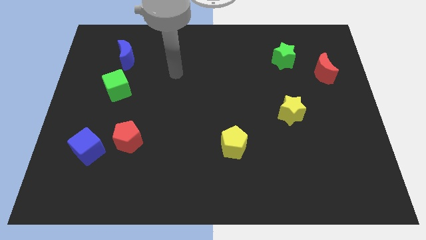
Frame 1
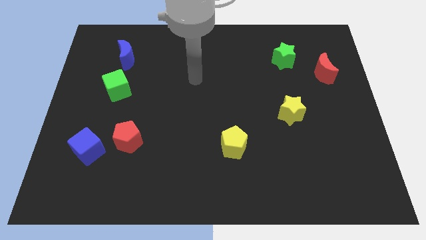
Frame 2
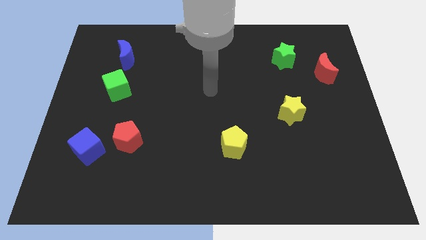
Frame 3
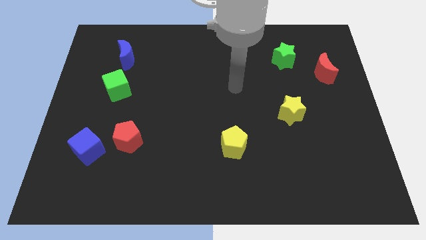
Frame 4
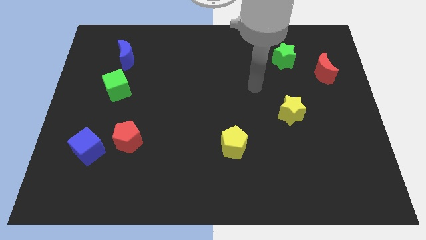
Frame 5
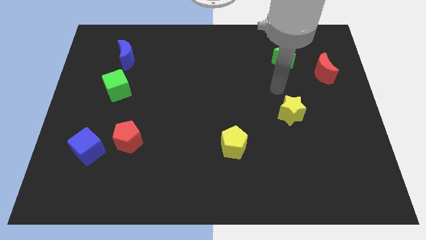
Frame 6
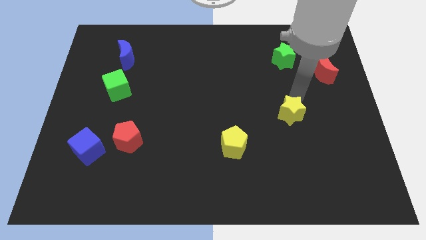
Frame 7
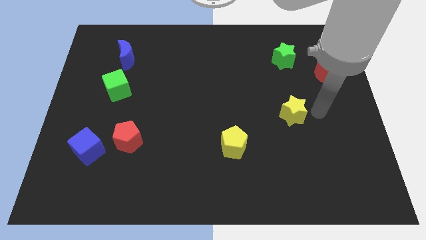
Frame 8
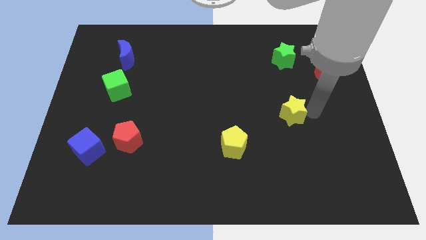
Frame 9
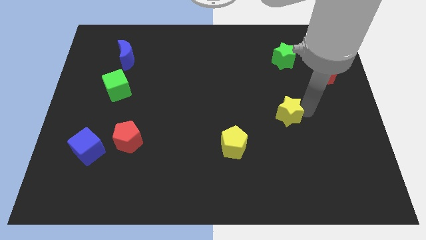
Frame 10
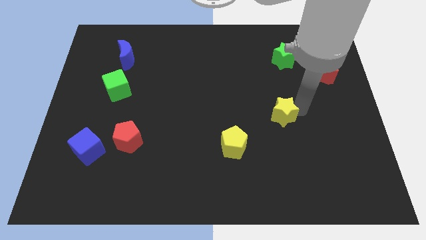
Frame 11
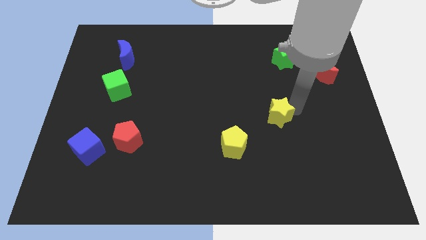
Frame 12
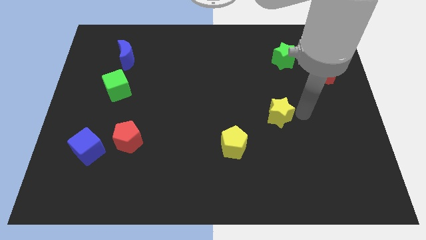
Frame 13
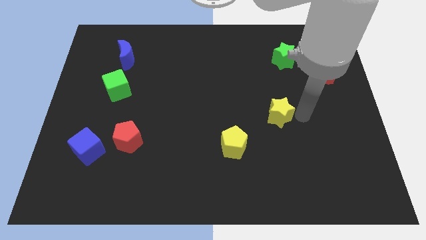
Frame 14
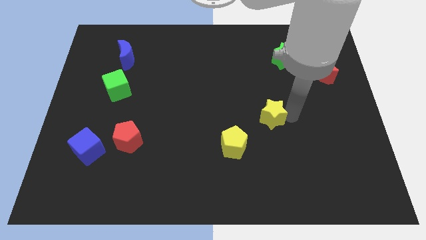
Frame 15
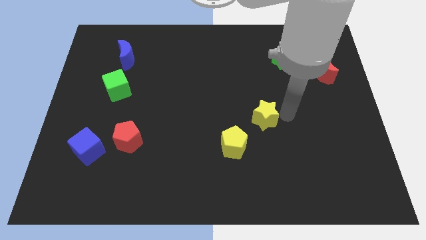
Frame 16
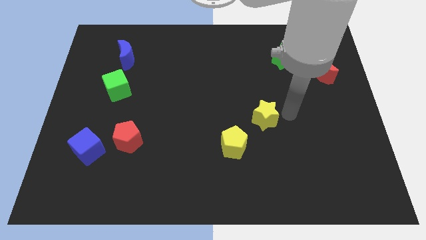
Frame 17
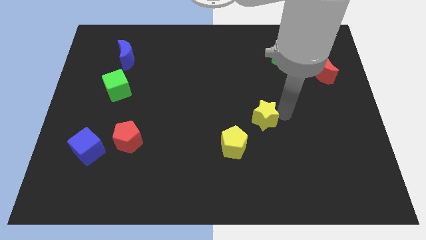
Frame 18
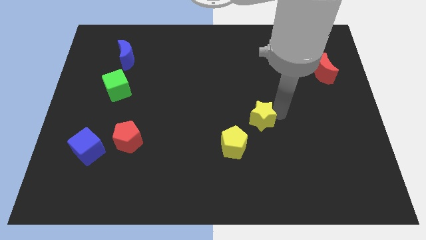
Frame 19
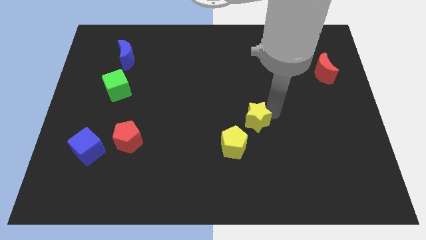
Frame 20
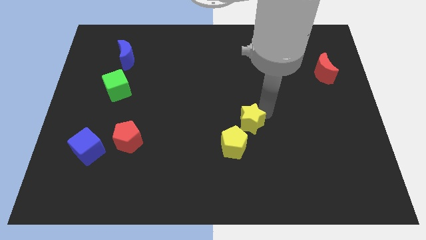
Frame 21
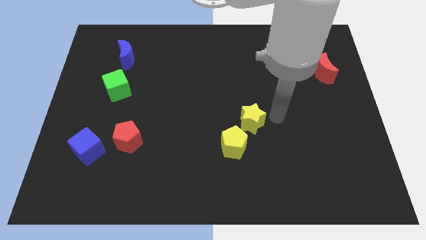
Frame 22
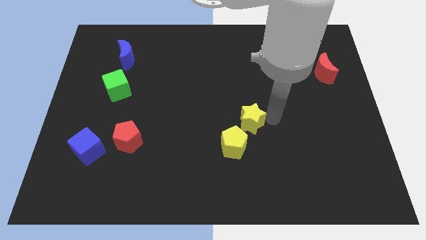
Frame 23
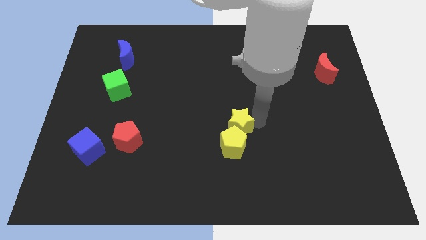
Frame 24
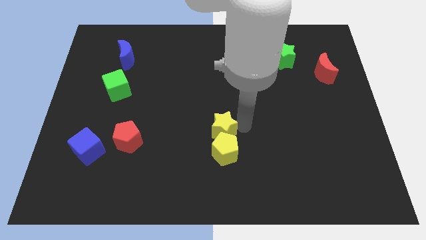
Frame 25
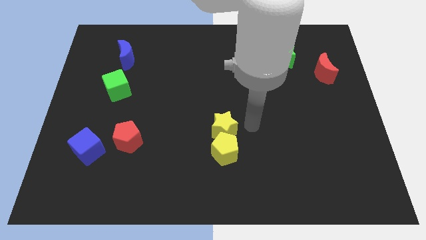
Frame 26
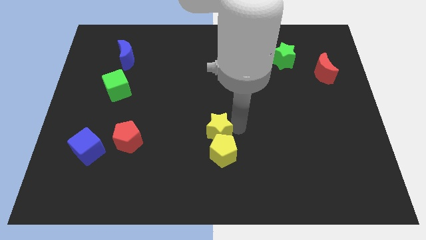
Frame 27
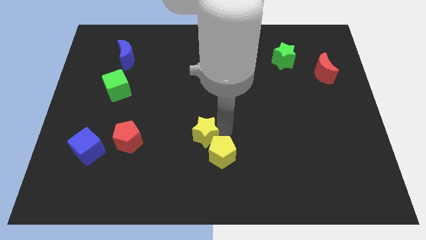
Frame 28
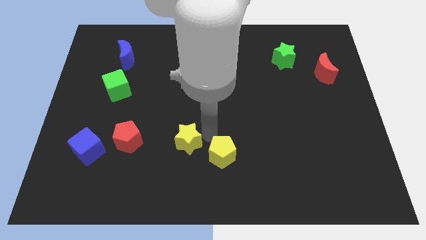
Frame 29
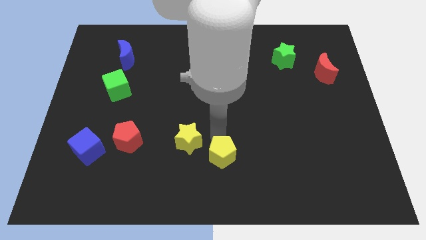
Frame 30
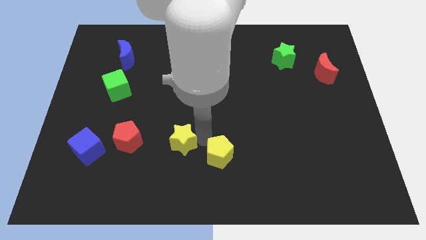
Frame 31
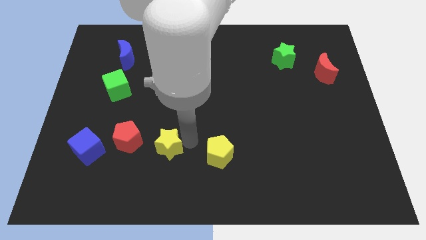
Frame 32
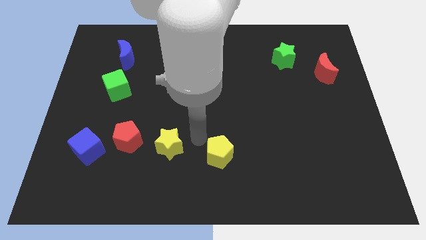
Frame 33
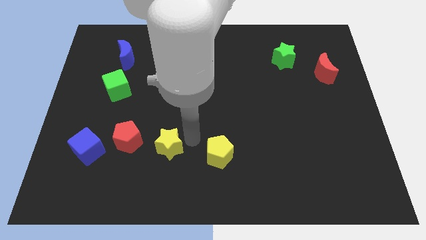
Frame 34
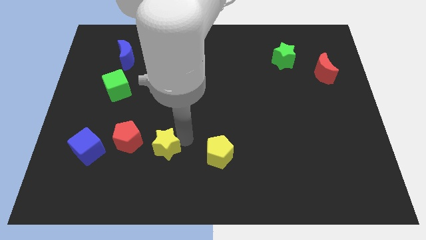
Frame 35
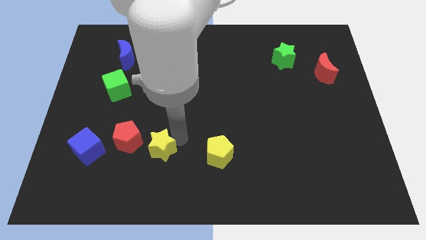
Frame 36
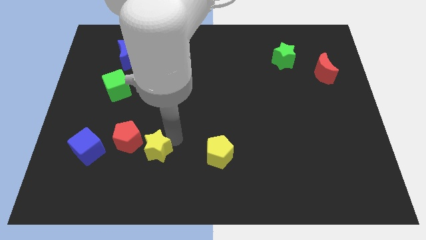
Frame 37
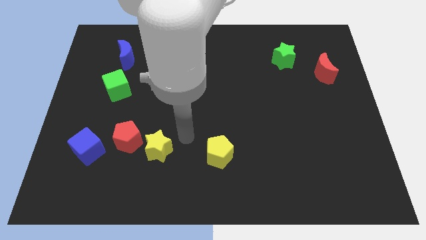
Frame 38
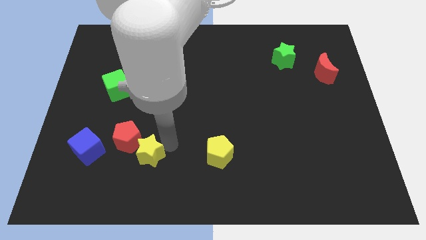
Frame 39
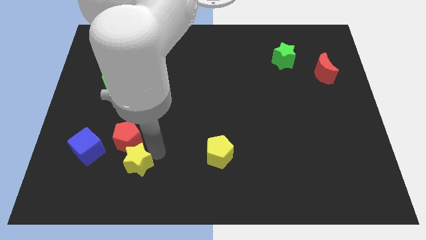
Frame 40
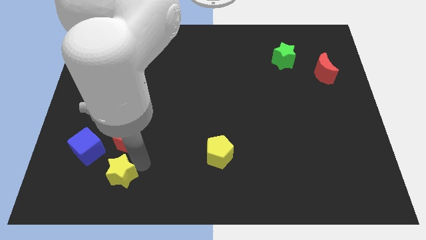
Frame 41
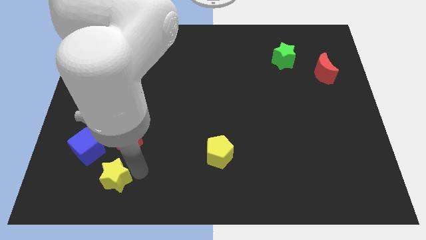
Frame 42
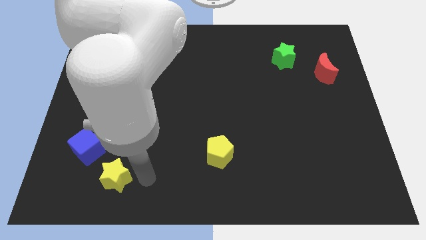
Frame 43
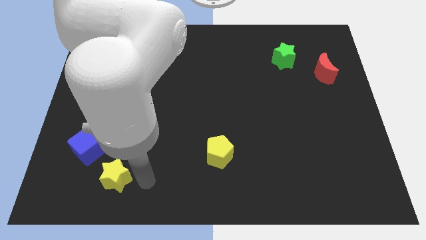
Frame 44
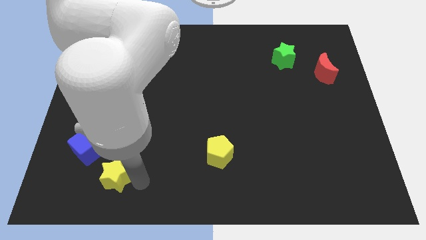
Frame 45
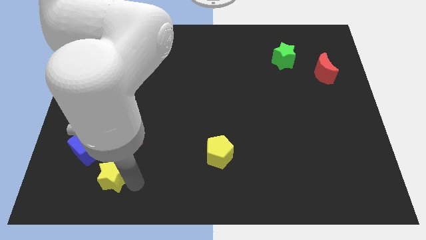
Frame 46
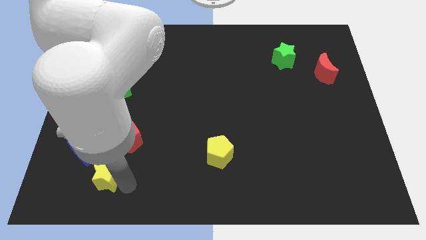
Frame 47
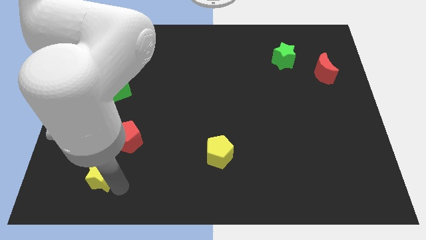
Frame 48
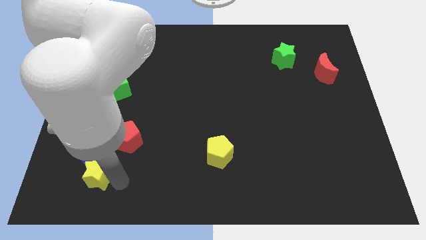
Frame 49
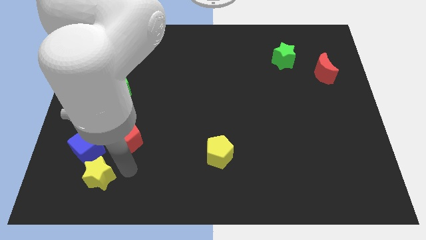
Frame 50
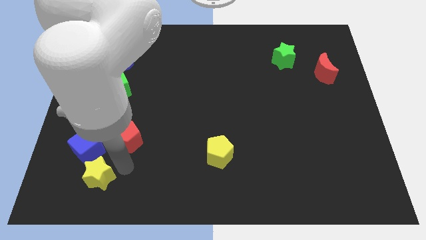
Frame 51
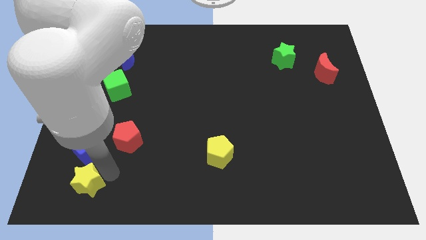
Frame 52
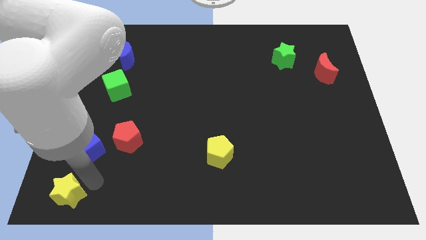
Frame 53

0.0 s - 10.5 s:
put the yellow star to the bottom left

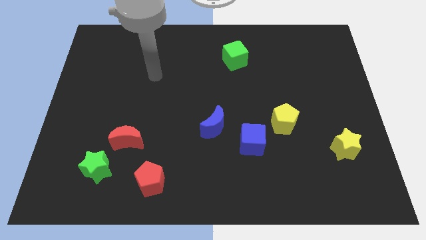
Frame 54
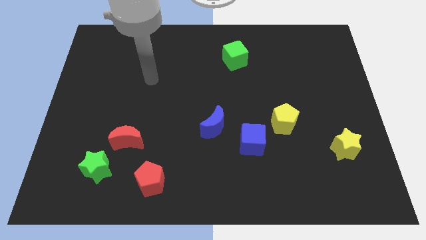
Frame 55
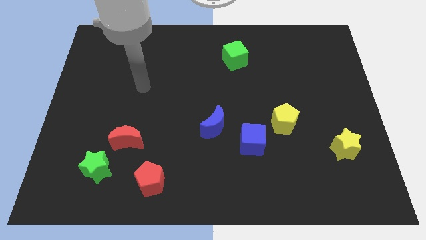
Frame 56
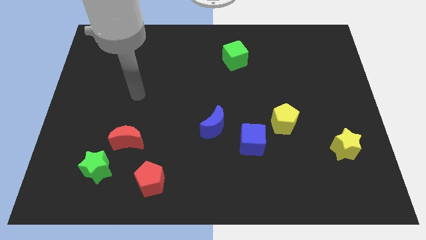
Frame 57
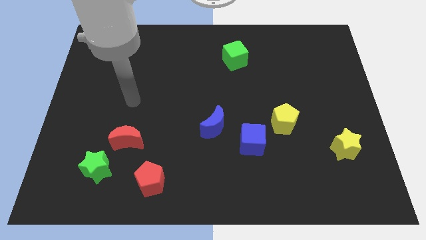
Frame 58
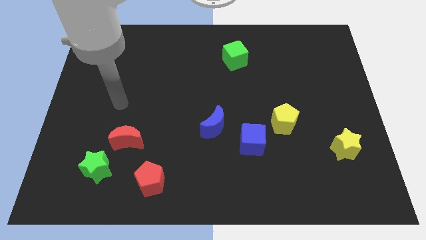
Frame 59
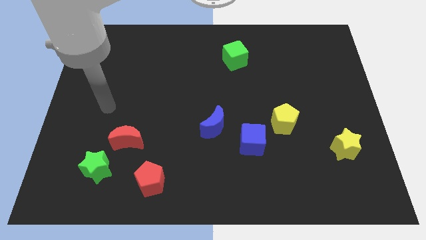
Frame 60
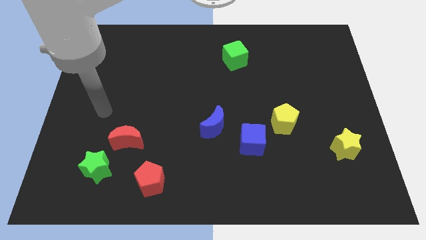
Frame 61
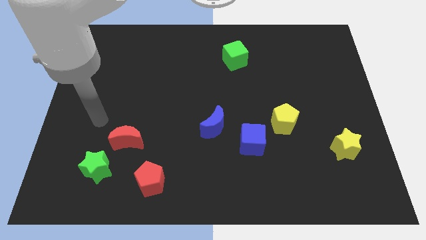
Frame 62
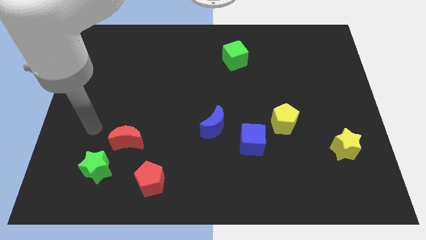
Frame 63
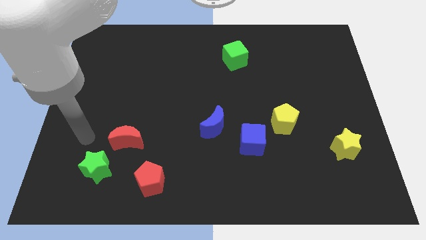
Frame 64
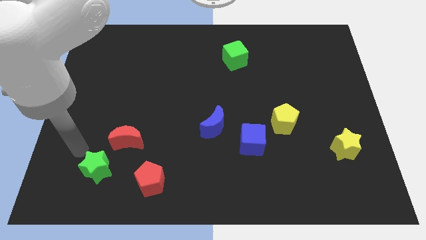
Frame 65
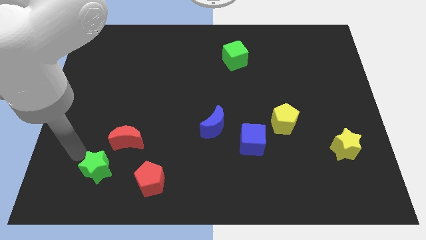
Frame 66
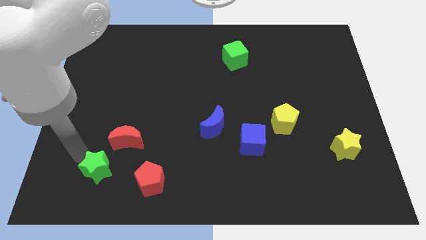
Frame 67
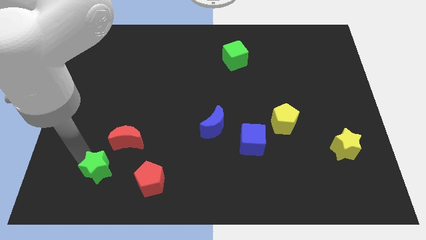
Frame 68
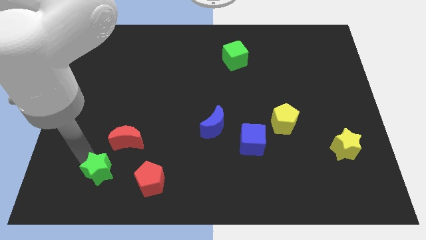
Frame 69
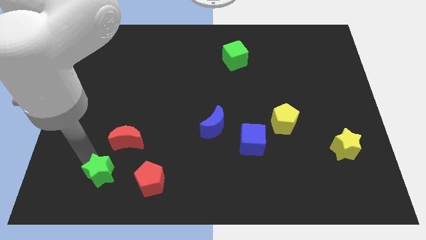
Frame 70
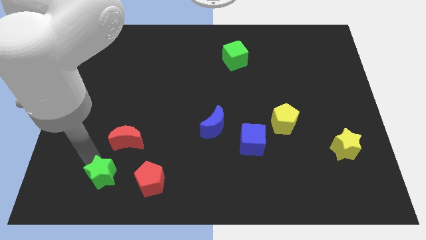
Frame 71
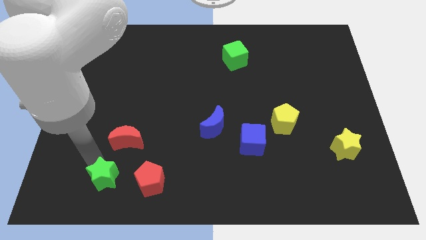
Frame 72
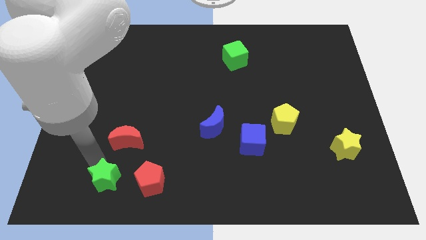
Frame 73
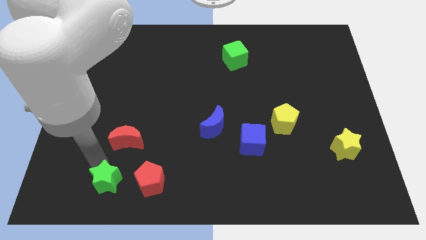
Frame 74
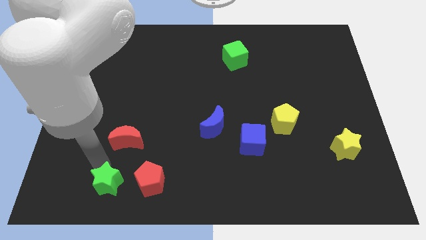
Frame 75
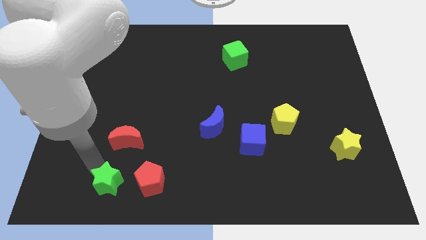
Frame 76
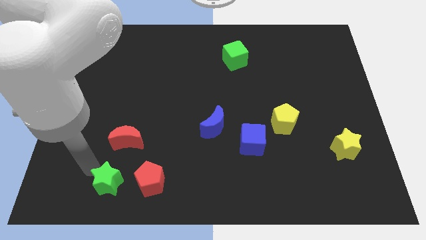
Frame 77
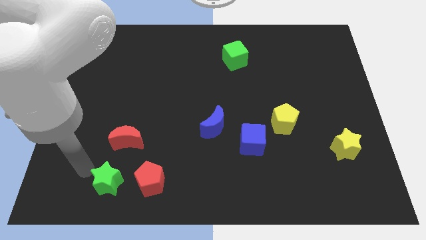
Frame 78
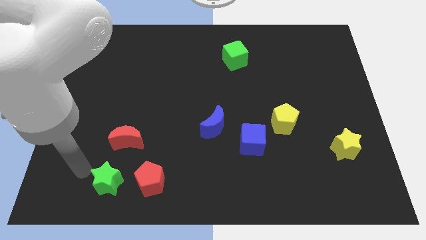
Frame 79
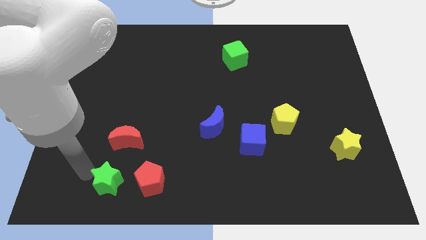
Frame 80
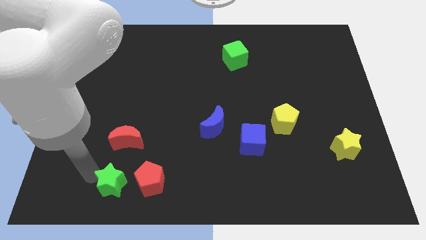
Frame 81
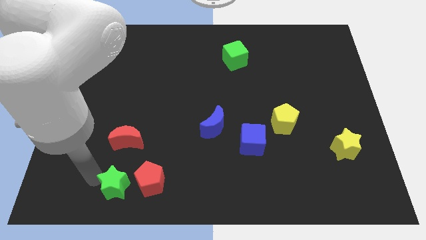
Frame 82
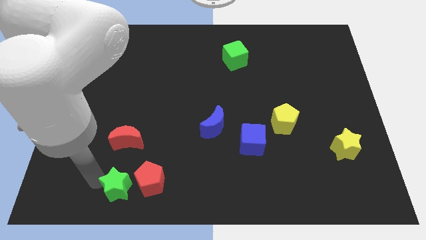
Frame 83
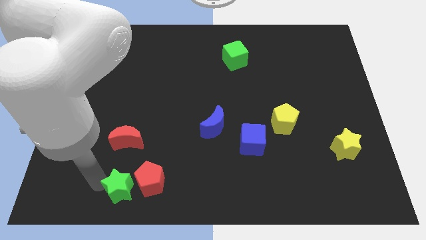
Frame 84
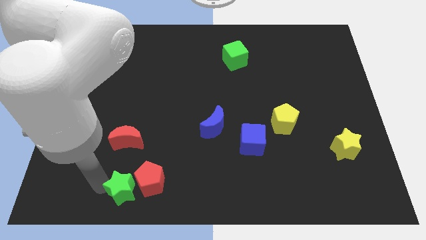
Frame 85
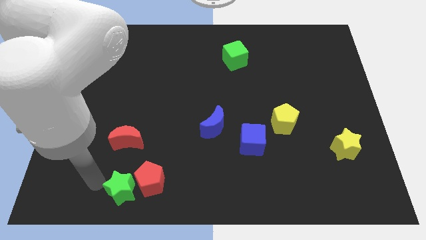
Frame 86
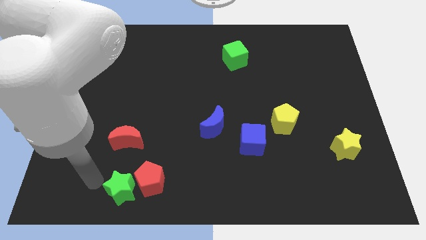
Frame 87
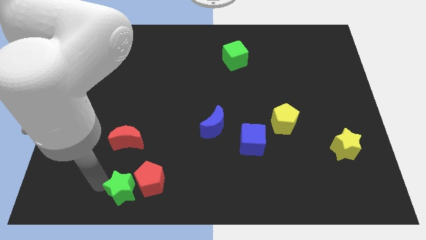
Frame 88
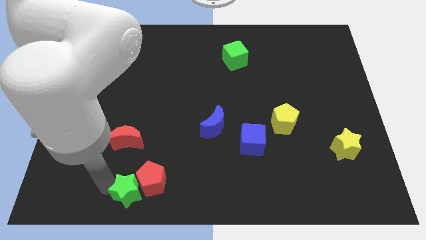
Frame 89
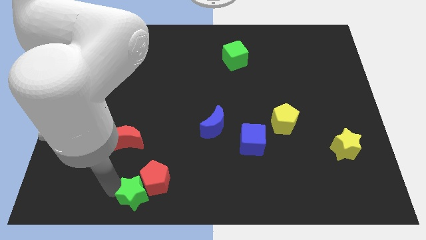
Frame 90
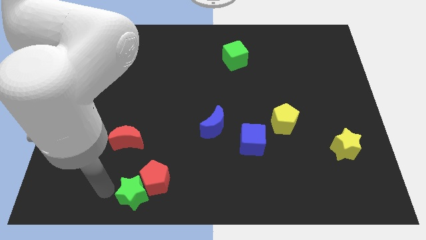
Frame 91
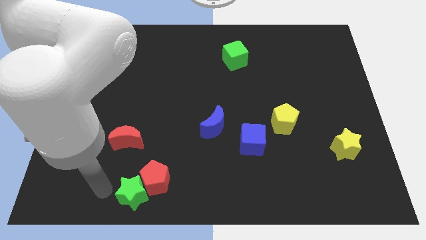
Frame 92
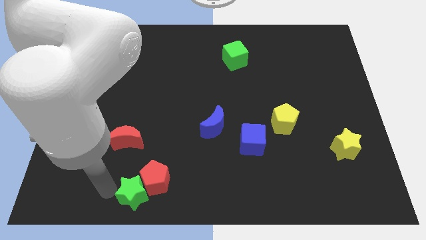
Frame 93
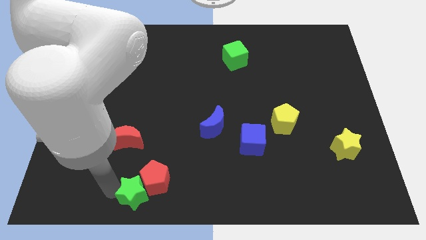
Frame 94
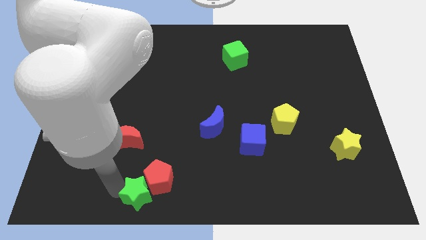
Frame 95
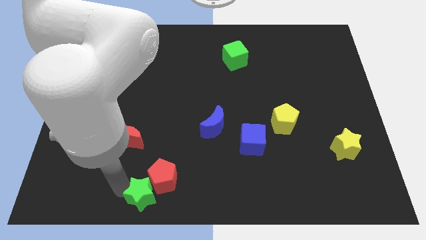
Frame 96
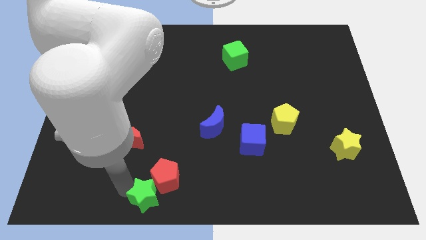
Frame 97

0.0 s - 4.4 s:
push the green star to the bottom side
